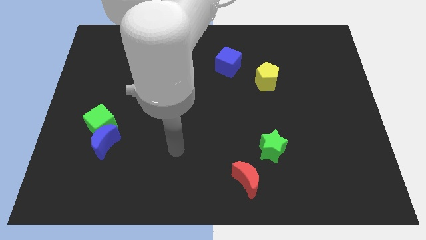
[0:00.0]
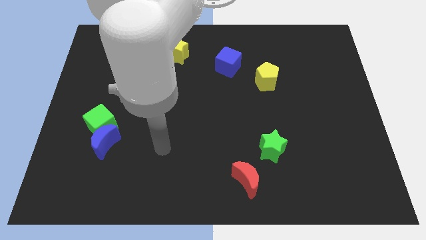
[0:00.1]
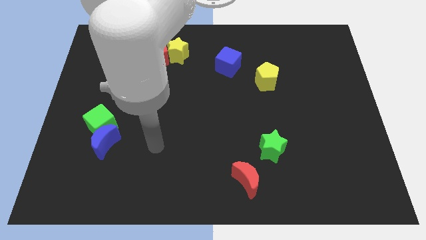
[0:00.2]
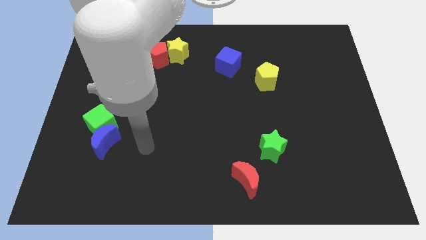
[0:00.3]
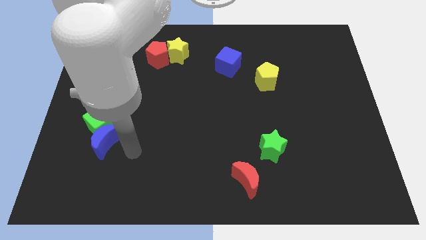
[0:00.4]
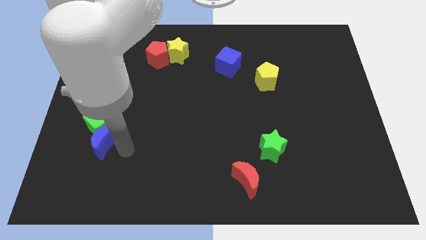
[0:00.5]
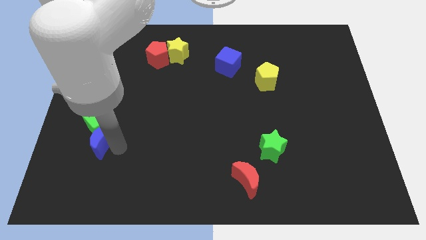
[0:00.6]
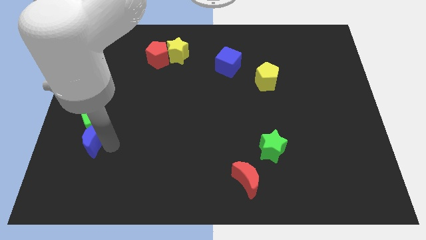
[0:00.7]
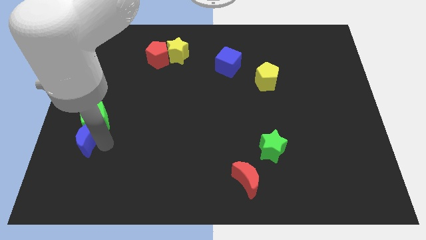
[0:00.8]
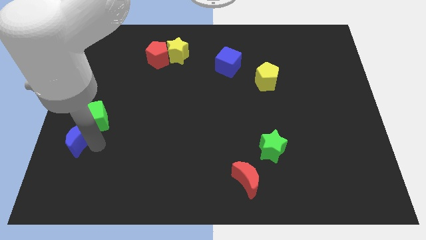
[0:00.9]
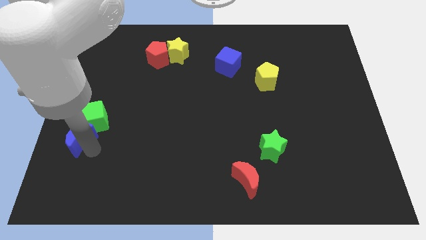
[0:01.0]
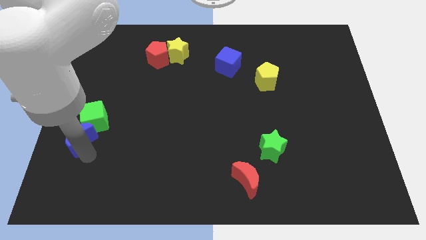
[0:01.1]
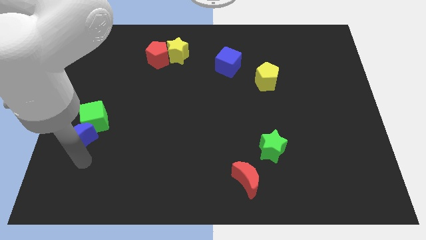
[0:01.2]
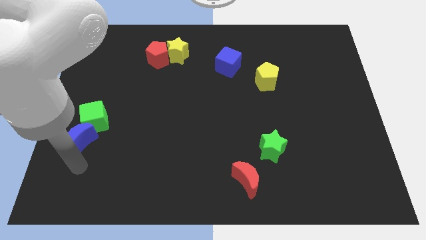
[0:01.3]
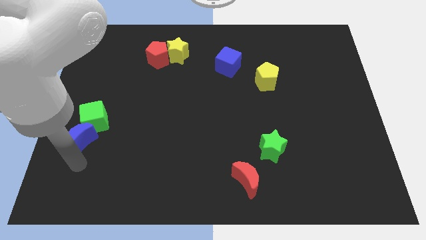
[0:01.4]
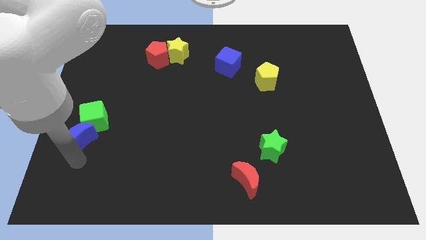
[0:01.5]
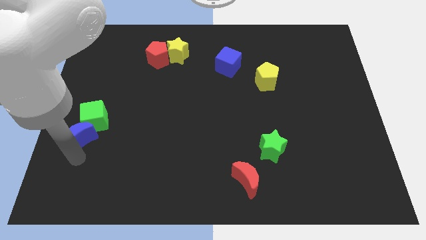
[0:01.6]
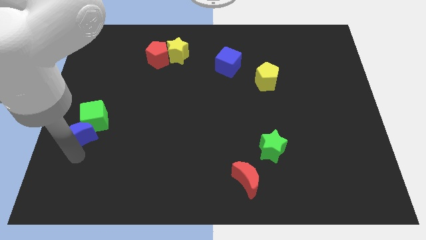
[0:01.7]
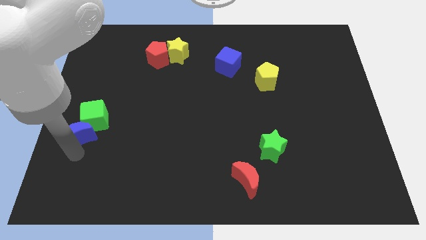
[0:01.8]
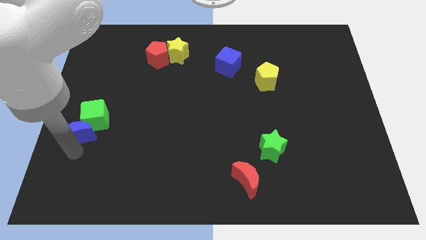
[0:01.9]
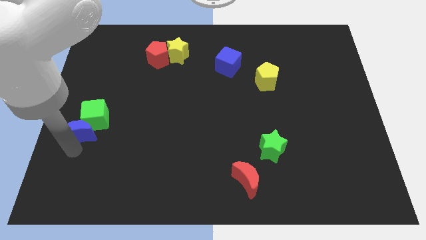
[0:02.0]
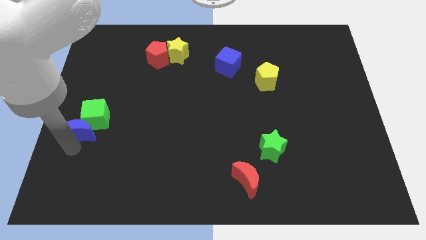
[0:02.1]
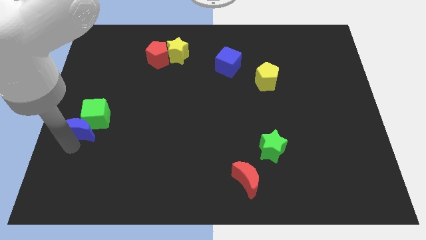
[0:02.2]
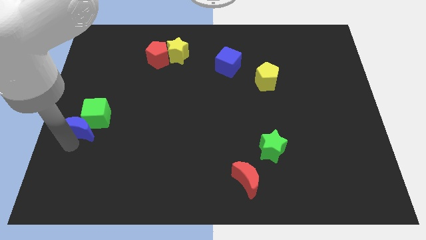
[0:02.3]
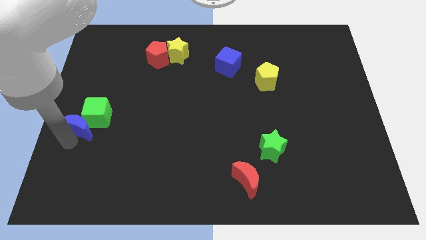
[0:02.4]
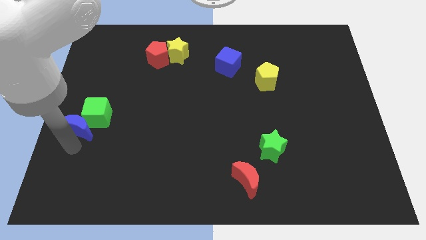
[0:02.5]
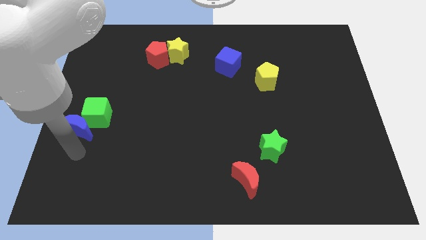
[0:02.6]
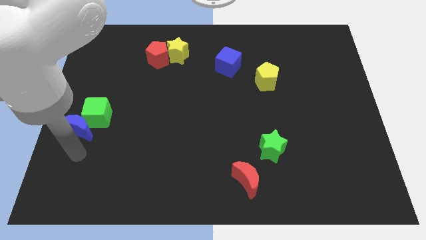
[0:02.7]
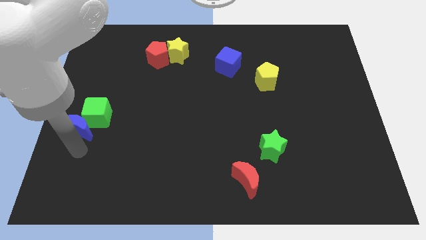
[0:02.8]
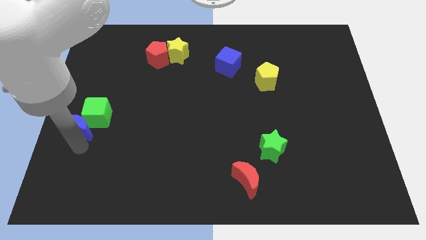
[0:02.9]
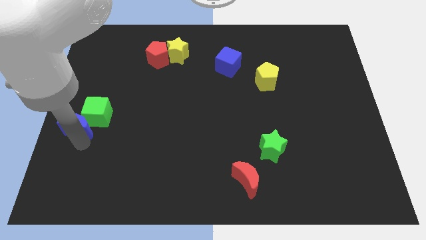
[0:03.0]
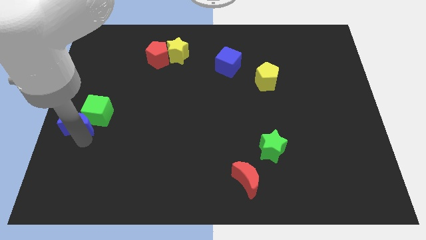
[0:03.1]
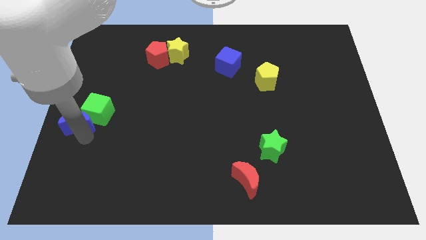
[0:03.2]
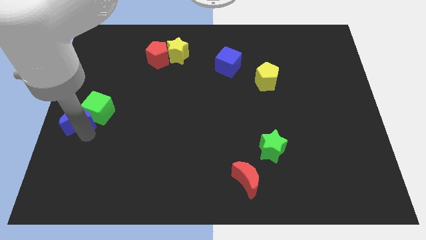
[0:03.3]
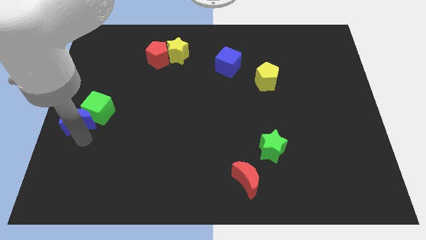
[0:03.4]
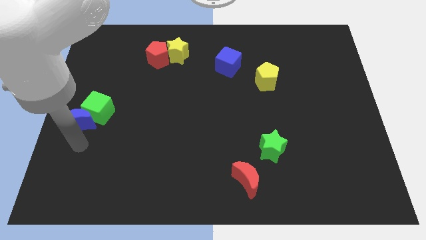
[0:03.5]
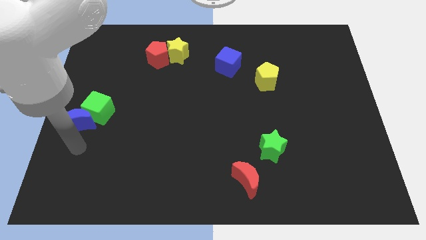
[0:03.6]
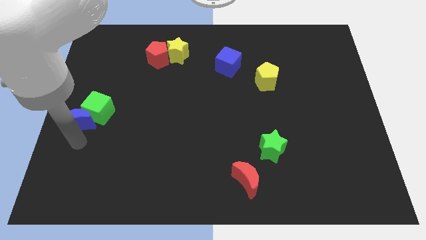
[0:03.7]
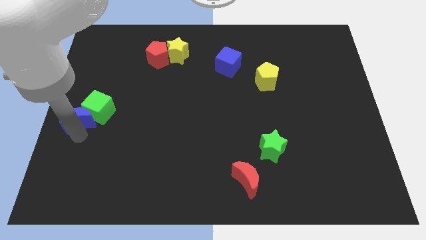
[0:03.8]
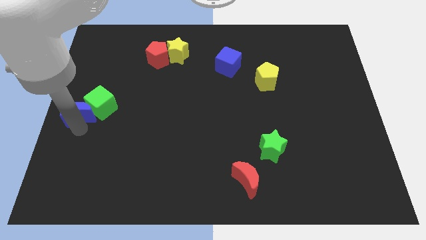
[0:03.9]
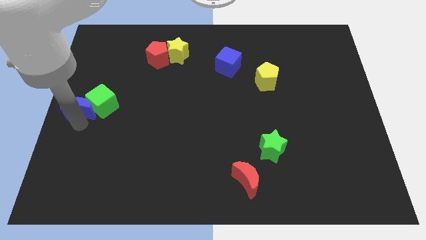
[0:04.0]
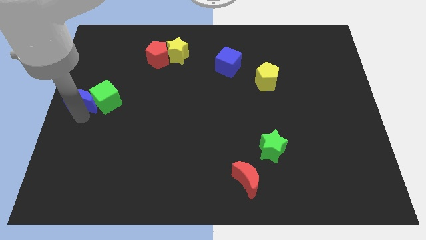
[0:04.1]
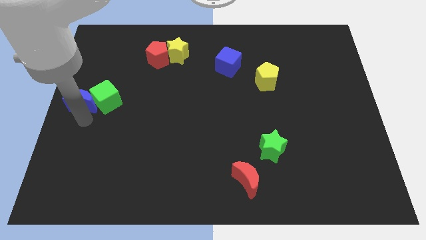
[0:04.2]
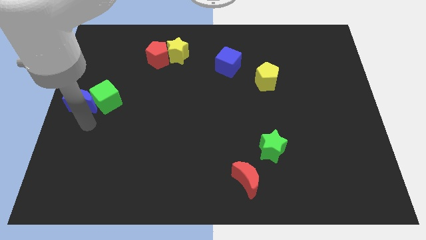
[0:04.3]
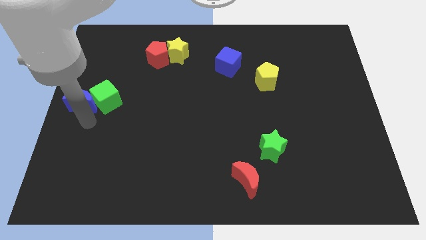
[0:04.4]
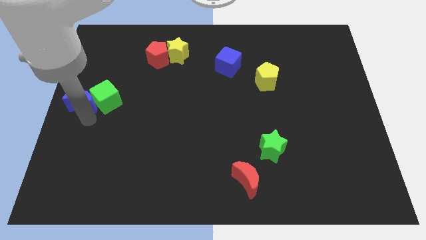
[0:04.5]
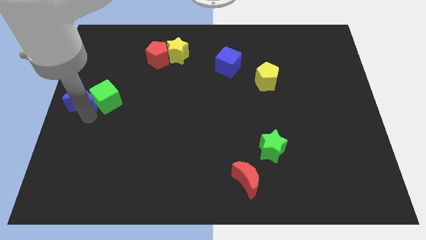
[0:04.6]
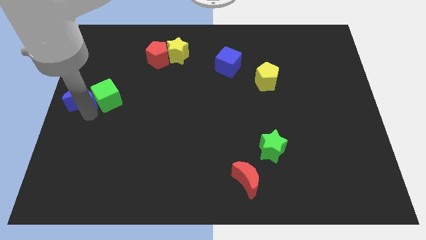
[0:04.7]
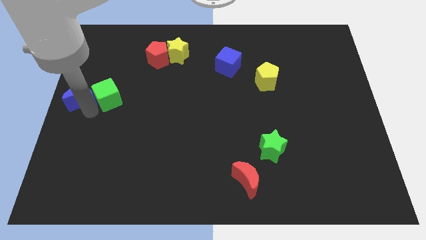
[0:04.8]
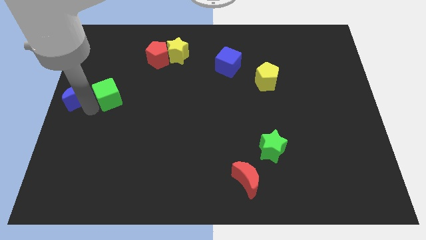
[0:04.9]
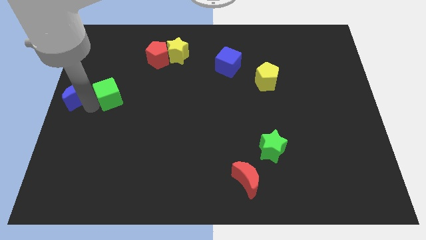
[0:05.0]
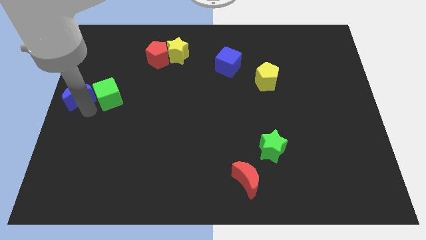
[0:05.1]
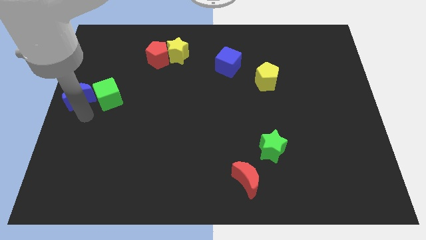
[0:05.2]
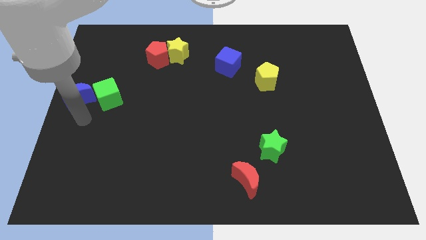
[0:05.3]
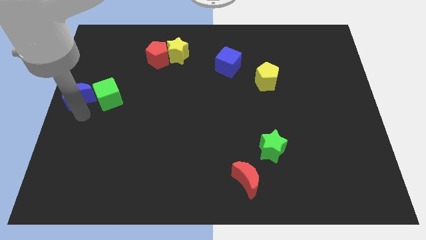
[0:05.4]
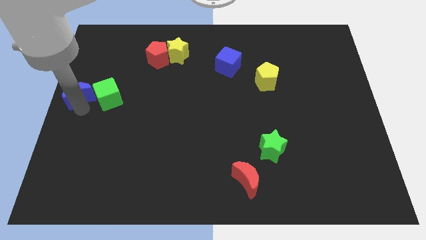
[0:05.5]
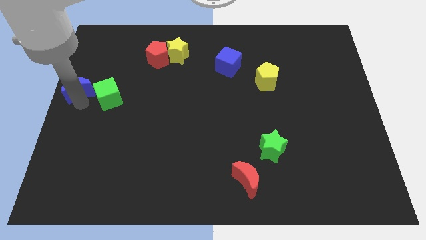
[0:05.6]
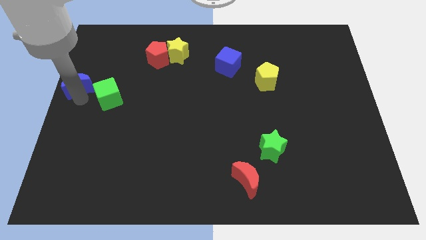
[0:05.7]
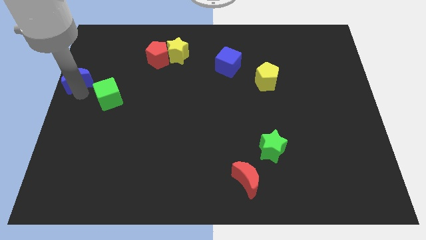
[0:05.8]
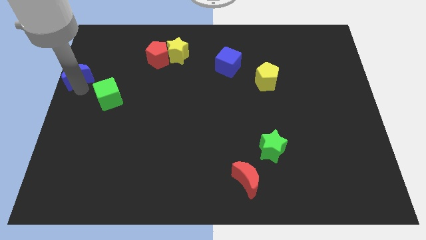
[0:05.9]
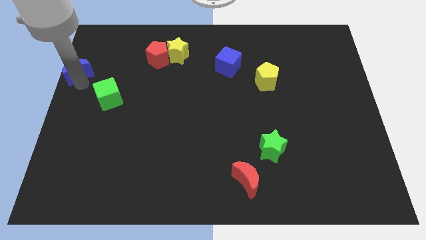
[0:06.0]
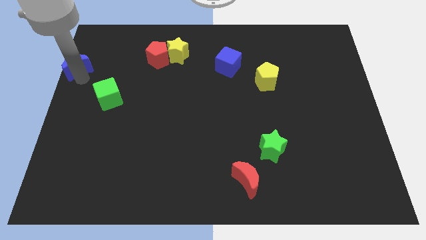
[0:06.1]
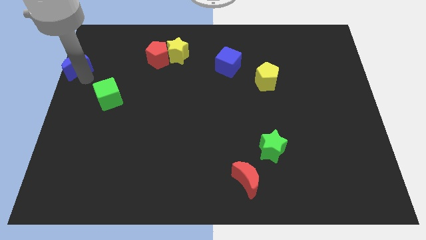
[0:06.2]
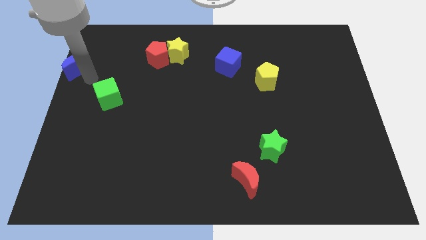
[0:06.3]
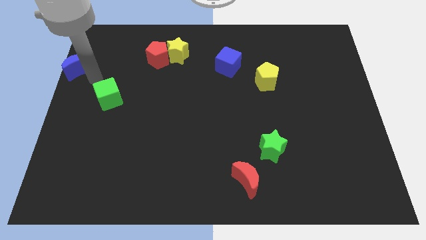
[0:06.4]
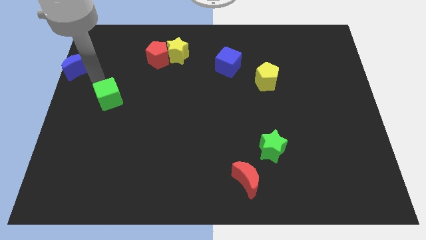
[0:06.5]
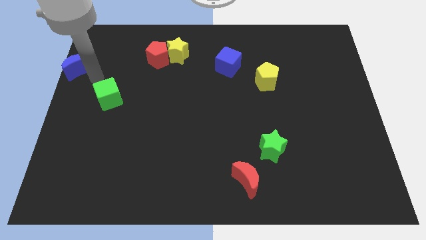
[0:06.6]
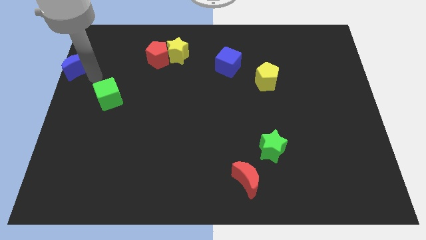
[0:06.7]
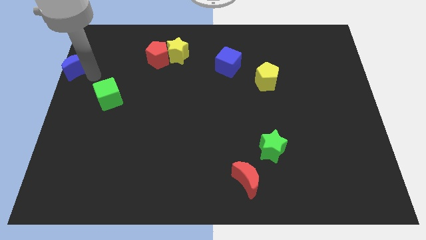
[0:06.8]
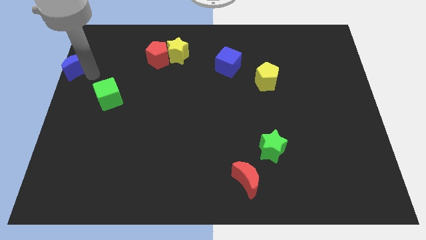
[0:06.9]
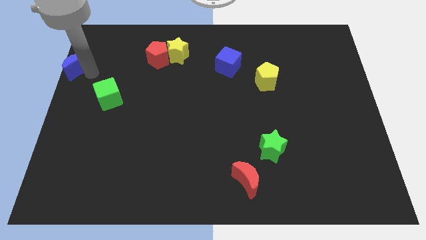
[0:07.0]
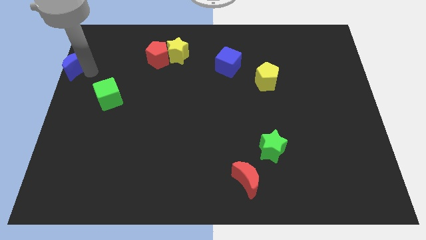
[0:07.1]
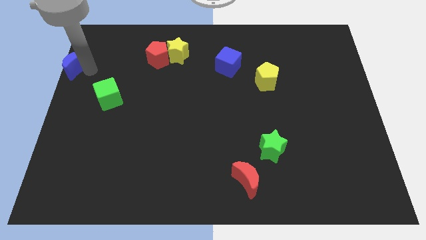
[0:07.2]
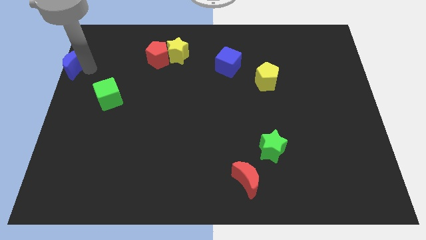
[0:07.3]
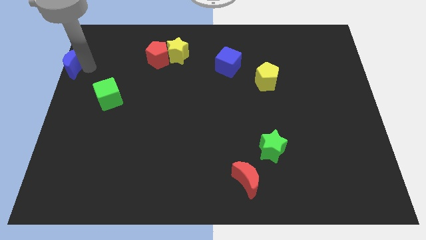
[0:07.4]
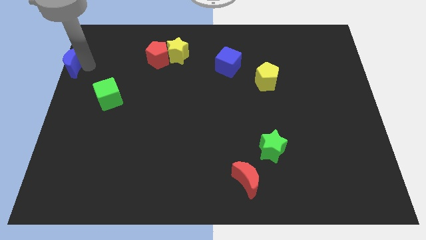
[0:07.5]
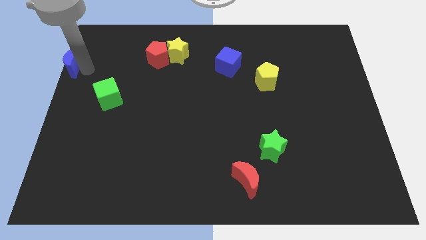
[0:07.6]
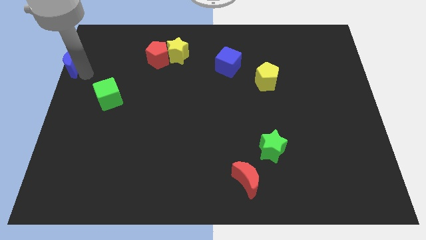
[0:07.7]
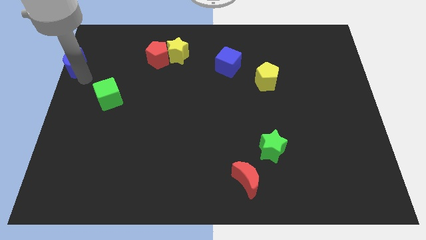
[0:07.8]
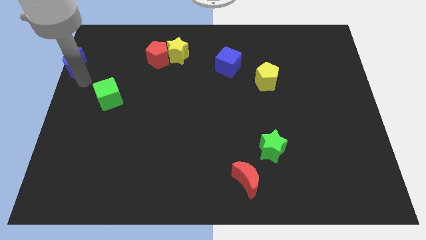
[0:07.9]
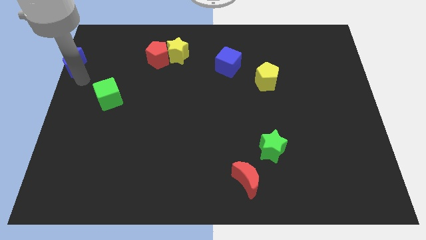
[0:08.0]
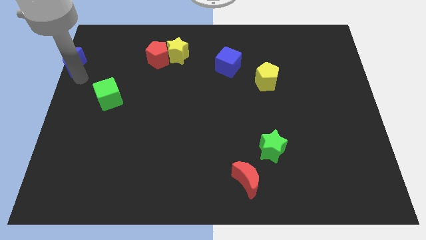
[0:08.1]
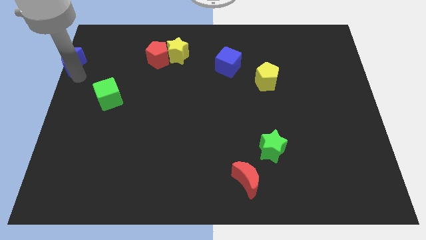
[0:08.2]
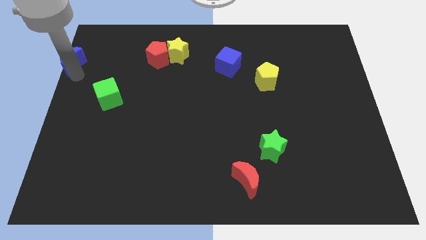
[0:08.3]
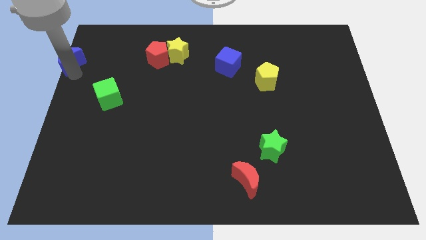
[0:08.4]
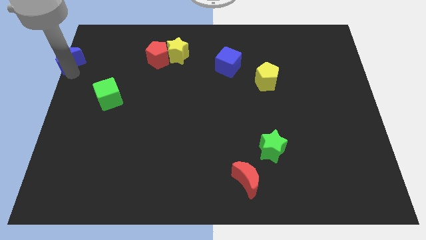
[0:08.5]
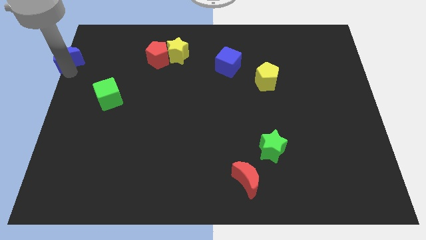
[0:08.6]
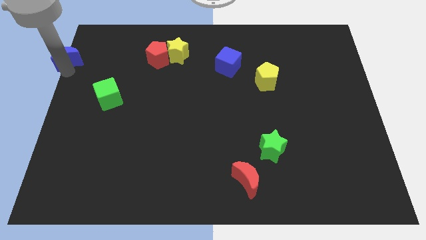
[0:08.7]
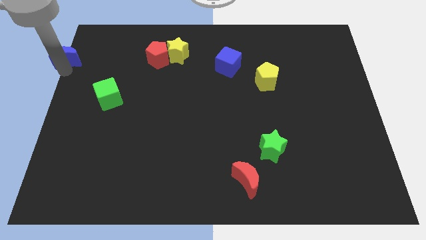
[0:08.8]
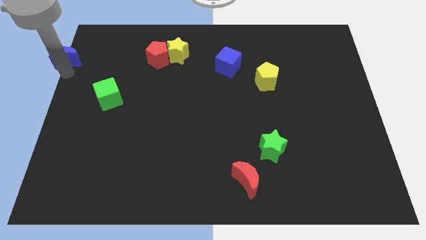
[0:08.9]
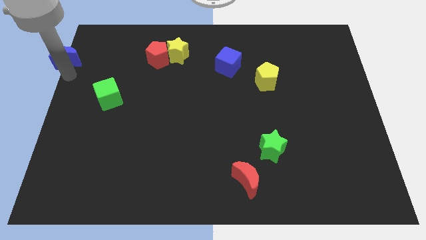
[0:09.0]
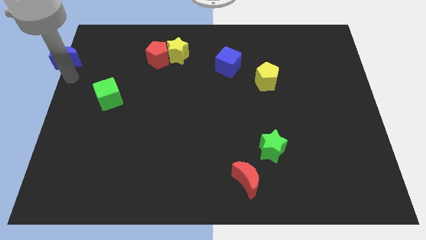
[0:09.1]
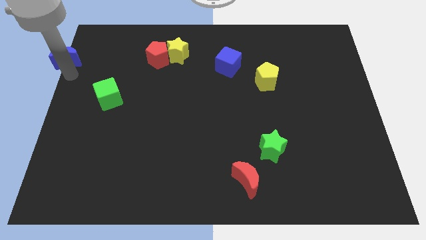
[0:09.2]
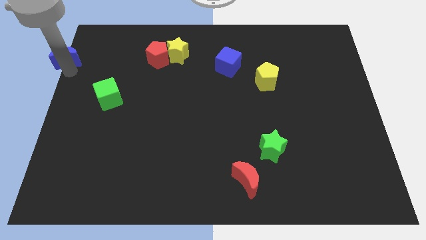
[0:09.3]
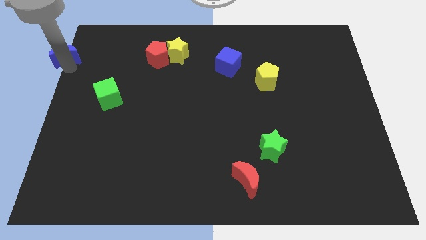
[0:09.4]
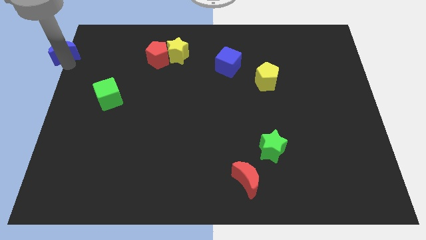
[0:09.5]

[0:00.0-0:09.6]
slide the blue moon to the upper left corner
